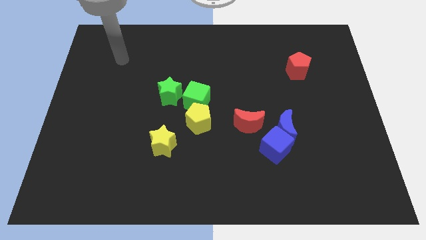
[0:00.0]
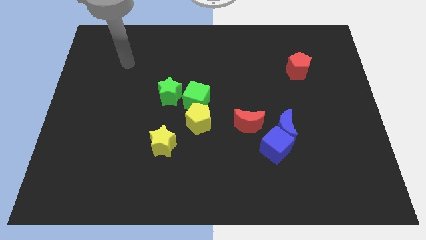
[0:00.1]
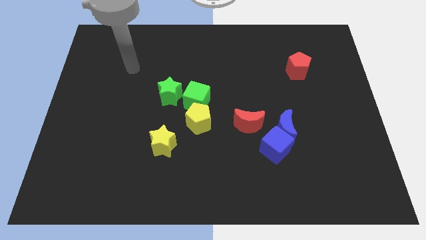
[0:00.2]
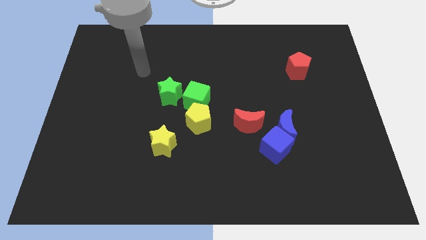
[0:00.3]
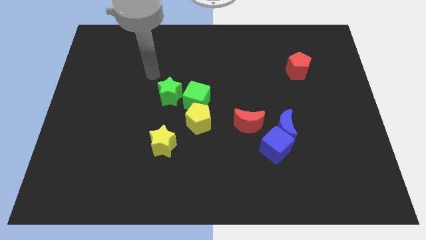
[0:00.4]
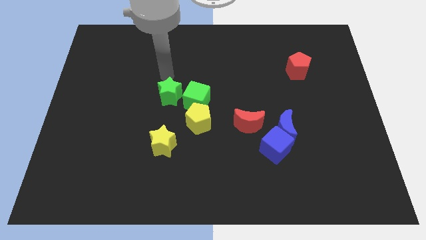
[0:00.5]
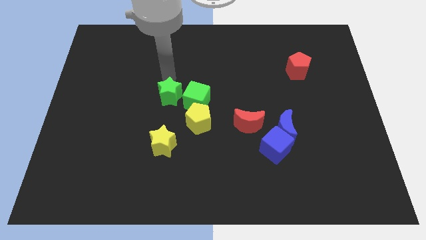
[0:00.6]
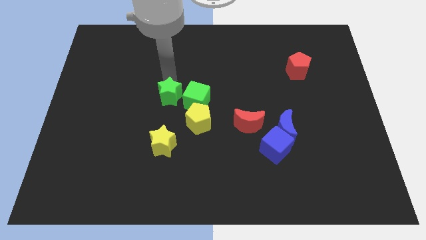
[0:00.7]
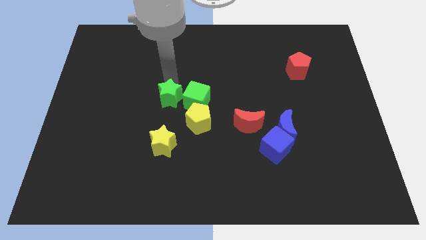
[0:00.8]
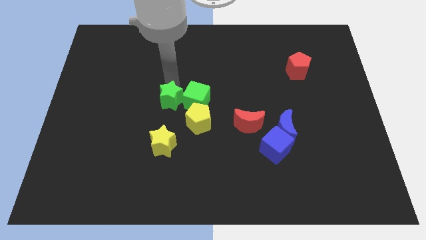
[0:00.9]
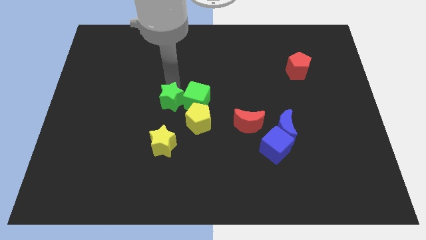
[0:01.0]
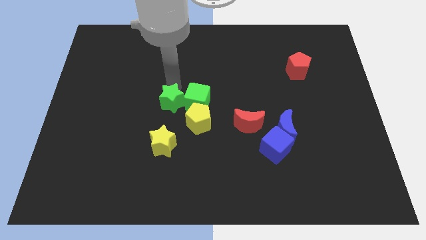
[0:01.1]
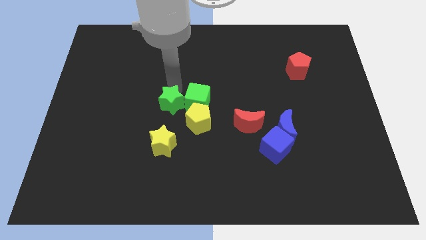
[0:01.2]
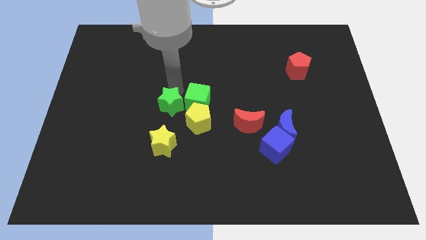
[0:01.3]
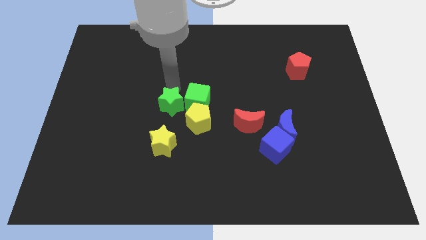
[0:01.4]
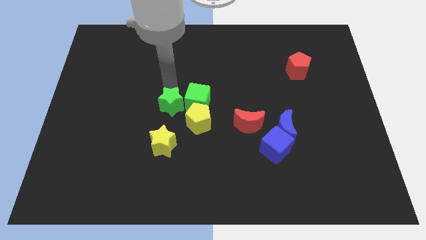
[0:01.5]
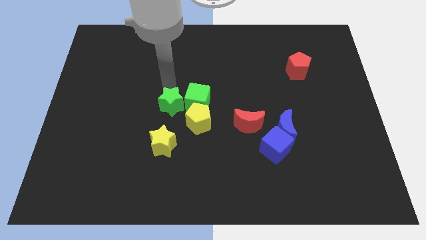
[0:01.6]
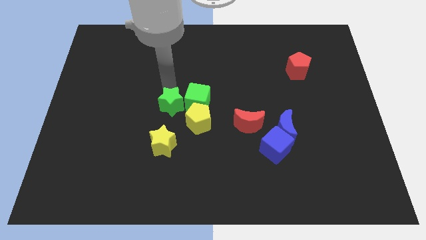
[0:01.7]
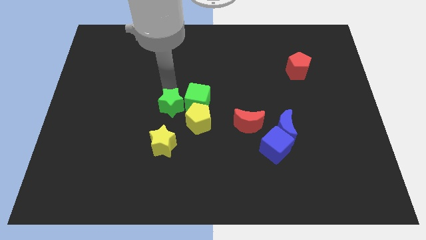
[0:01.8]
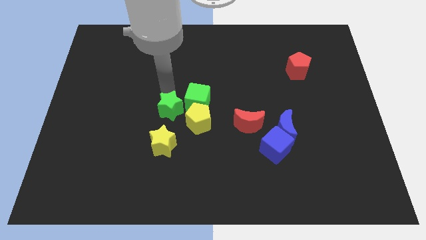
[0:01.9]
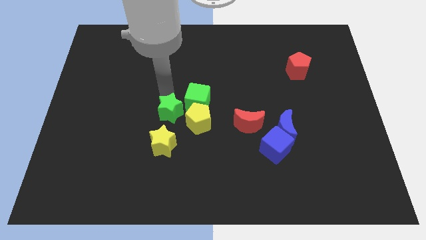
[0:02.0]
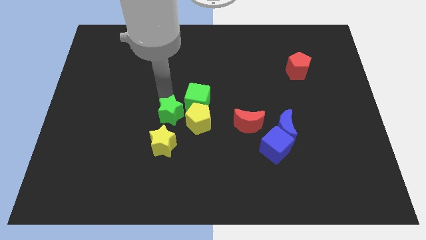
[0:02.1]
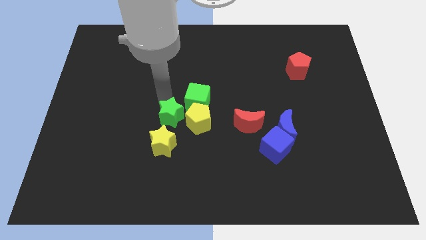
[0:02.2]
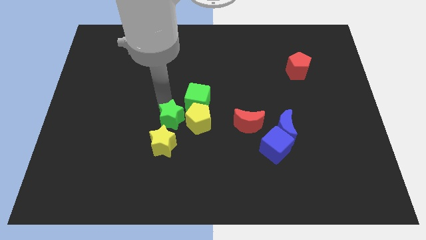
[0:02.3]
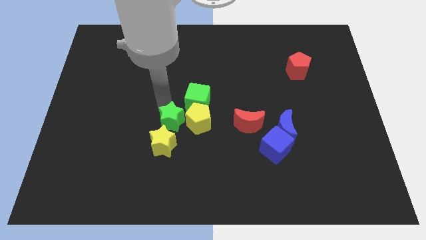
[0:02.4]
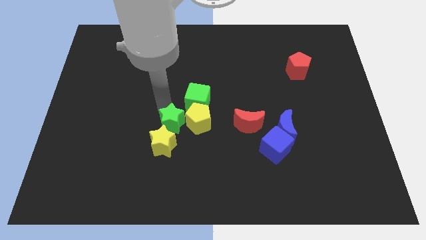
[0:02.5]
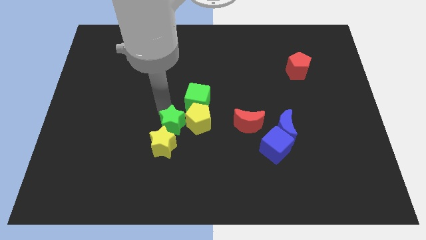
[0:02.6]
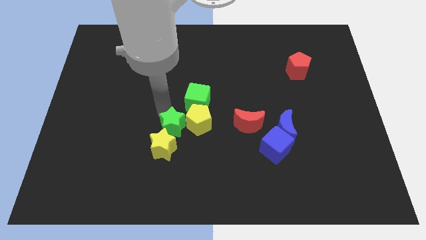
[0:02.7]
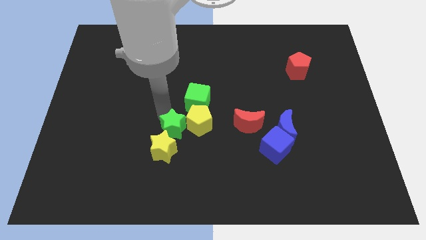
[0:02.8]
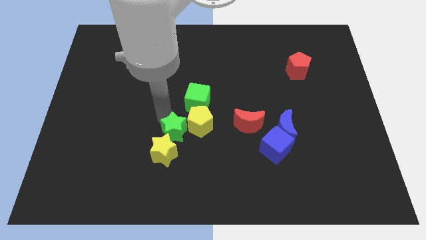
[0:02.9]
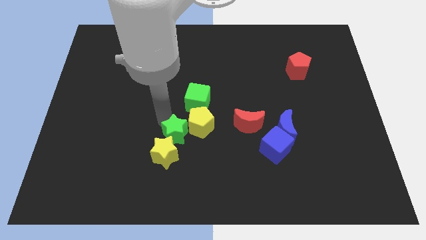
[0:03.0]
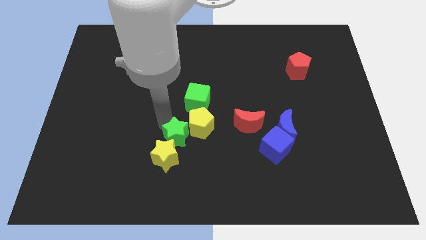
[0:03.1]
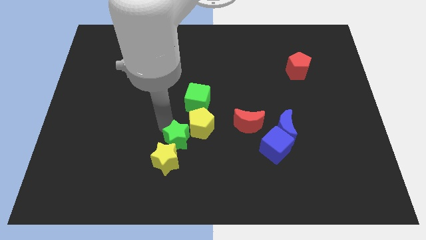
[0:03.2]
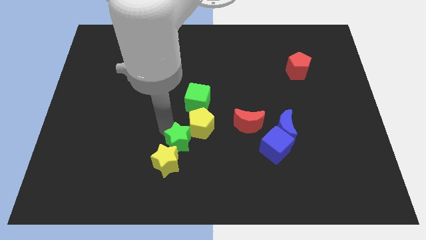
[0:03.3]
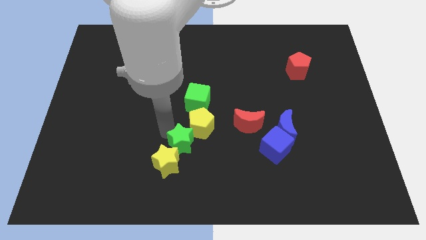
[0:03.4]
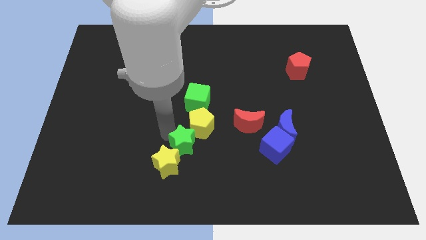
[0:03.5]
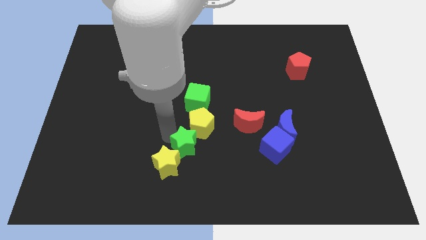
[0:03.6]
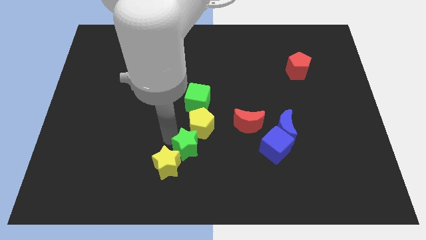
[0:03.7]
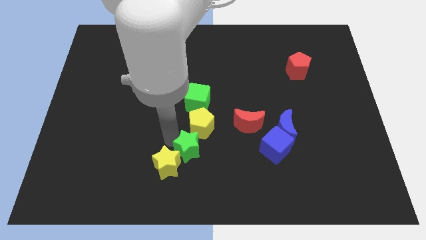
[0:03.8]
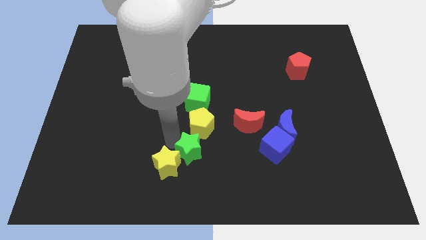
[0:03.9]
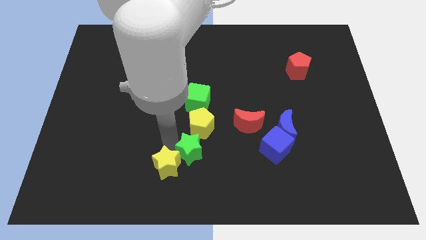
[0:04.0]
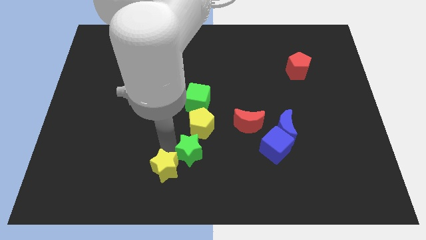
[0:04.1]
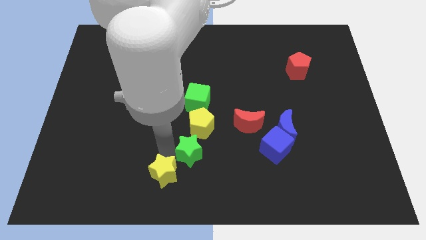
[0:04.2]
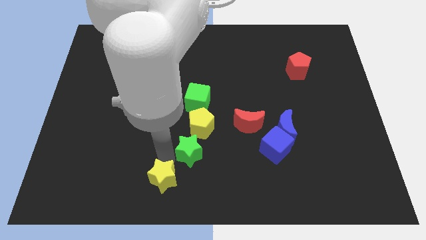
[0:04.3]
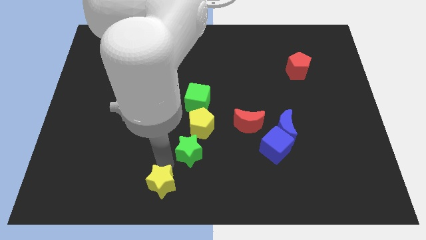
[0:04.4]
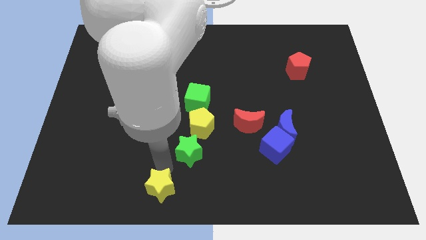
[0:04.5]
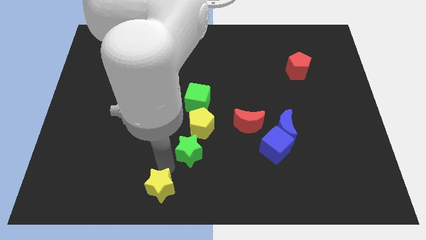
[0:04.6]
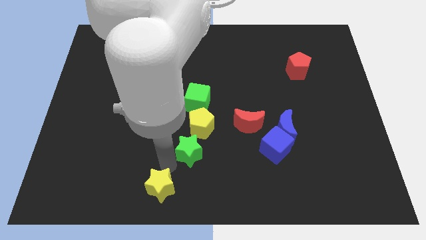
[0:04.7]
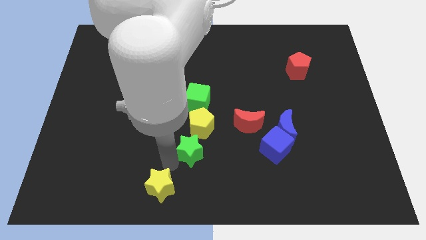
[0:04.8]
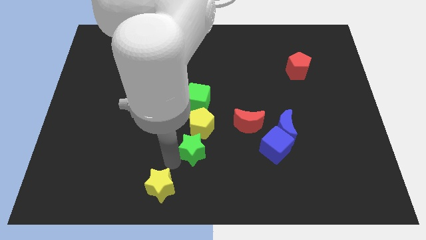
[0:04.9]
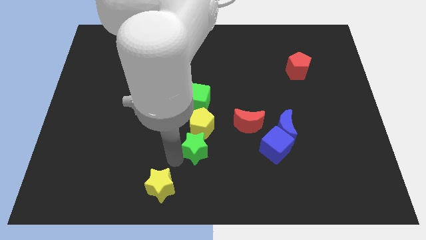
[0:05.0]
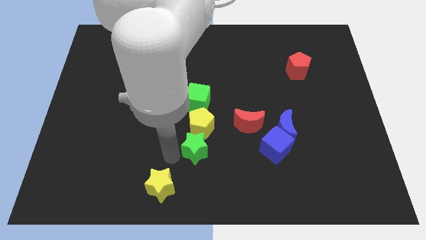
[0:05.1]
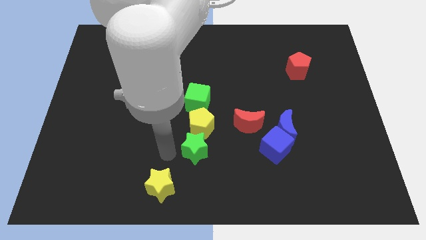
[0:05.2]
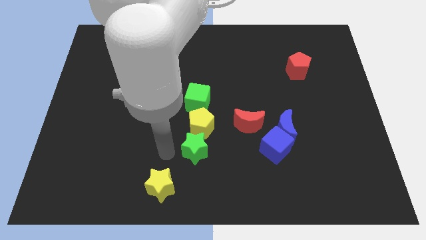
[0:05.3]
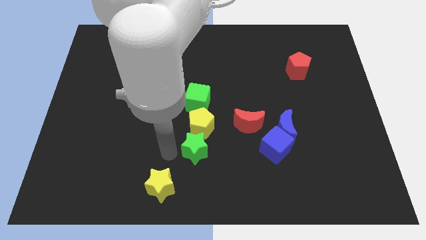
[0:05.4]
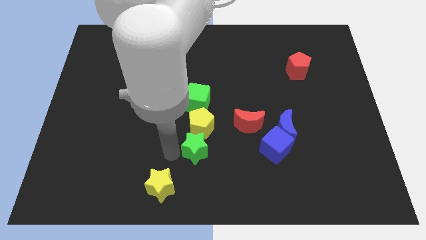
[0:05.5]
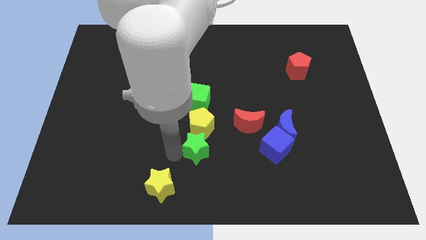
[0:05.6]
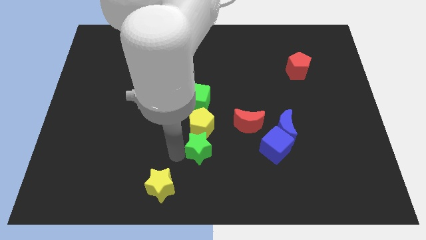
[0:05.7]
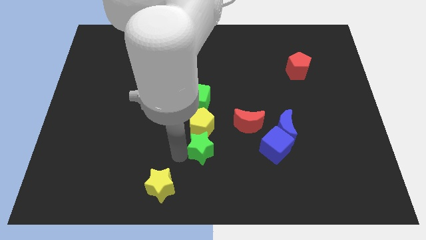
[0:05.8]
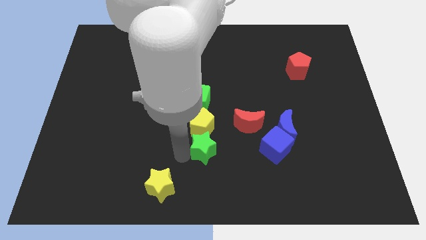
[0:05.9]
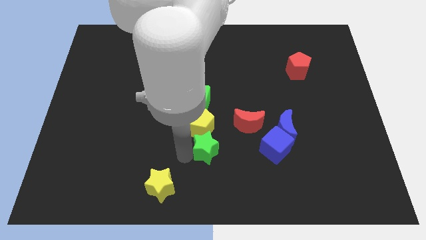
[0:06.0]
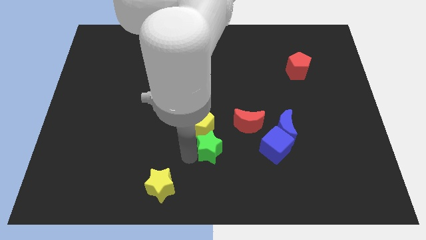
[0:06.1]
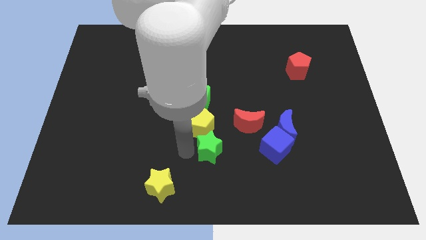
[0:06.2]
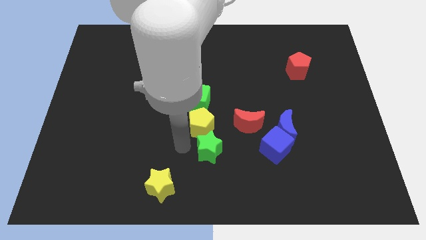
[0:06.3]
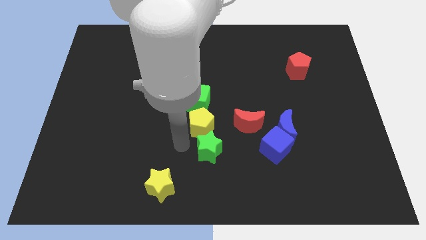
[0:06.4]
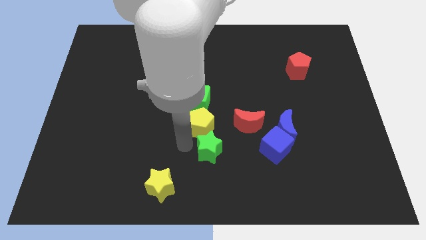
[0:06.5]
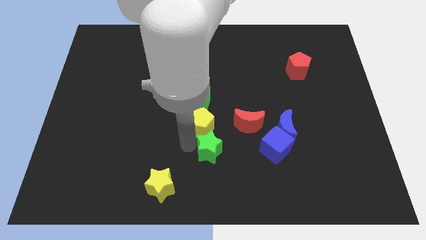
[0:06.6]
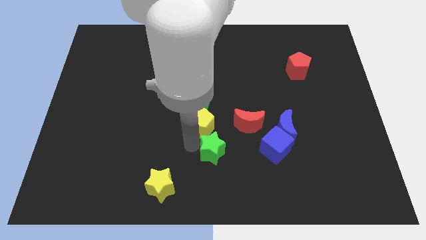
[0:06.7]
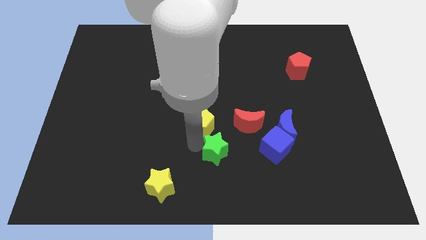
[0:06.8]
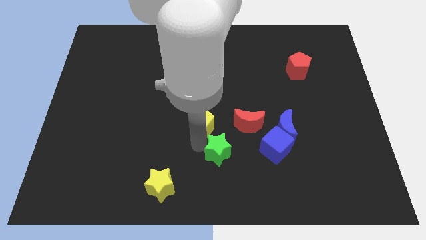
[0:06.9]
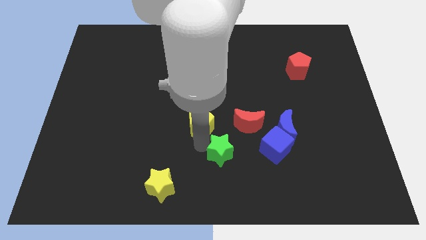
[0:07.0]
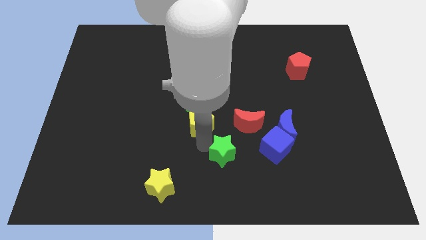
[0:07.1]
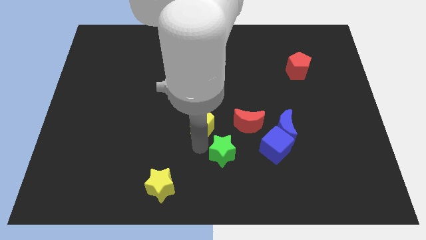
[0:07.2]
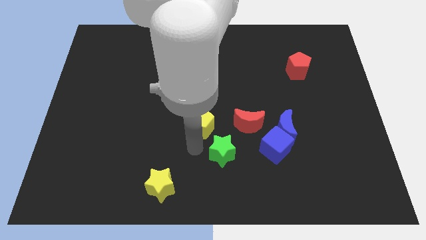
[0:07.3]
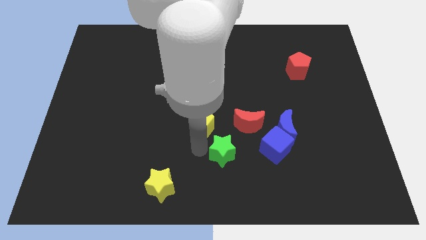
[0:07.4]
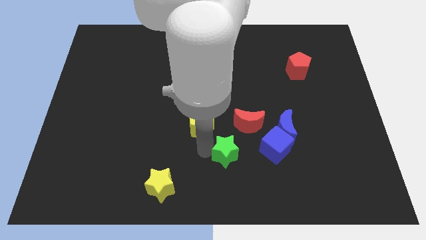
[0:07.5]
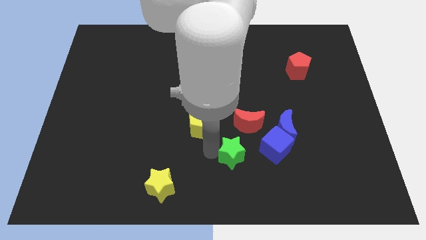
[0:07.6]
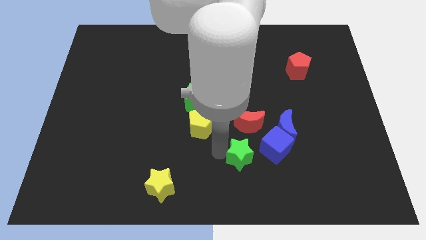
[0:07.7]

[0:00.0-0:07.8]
slide the green star to the bottom left side of the blue cube
